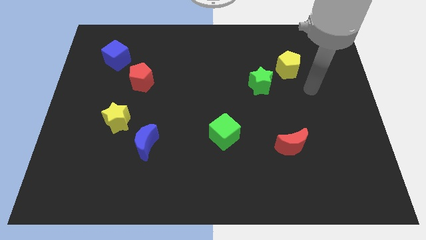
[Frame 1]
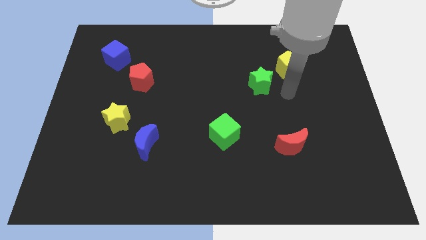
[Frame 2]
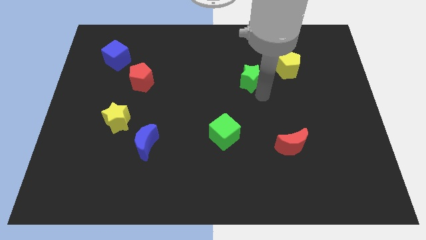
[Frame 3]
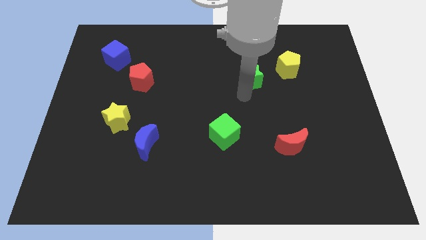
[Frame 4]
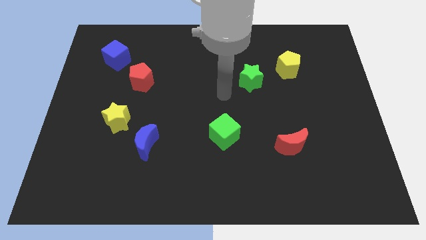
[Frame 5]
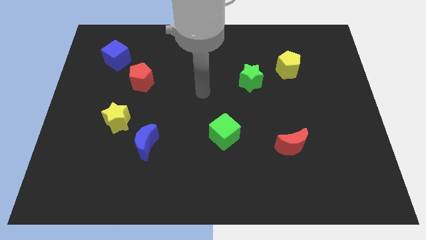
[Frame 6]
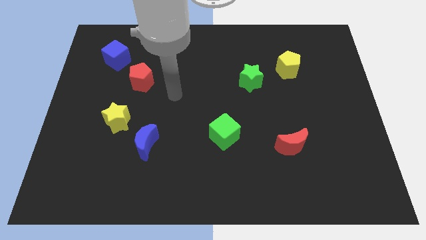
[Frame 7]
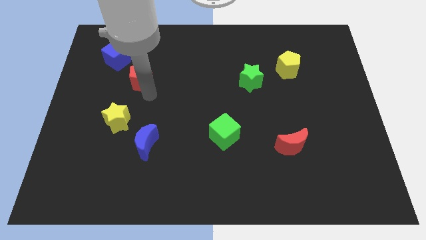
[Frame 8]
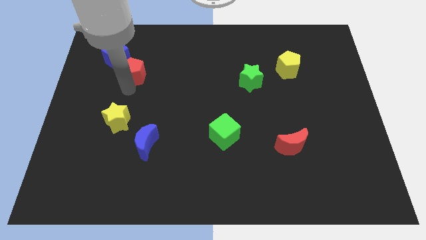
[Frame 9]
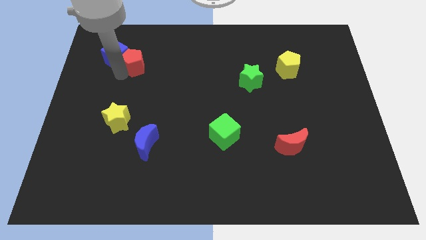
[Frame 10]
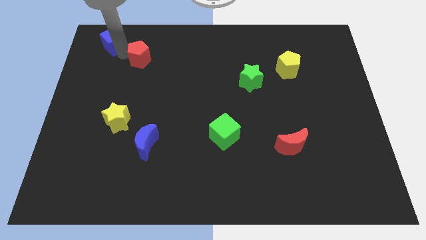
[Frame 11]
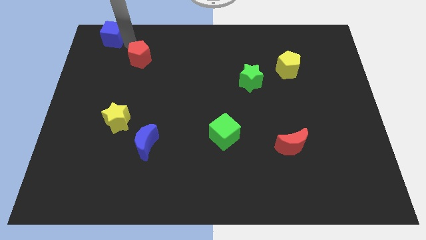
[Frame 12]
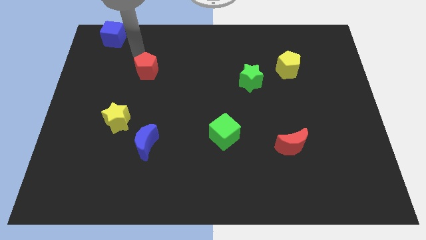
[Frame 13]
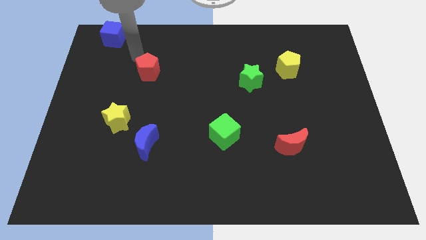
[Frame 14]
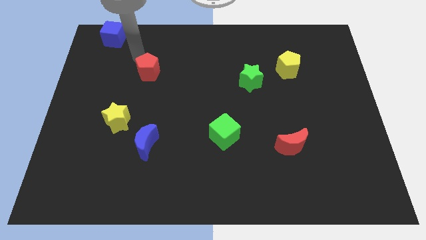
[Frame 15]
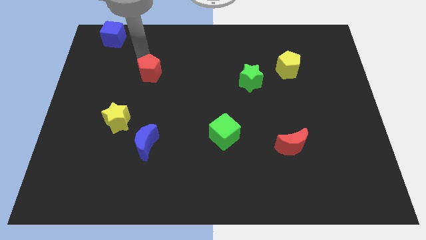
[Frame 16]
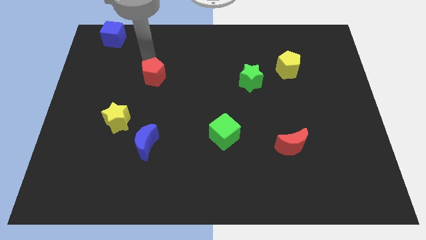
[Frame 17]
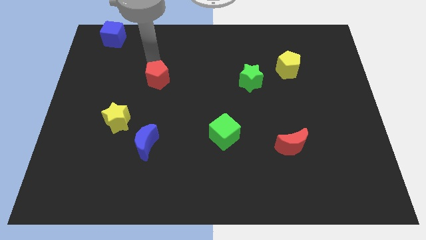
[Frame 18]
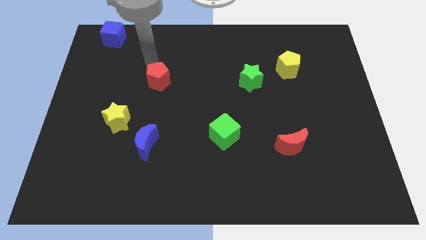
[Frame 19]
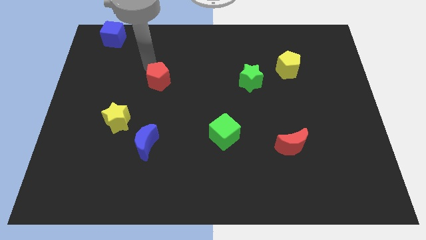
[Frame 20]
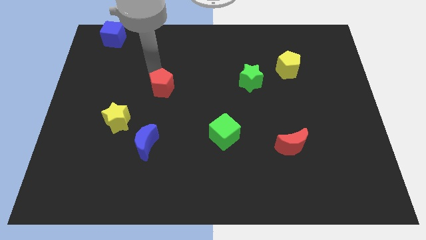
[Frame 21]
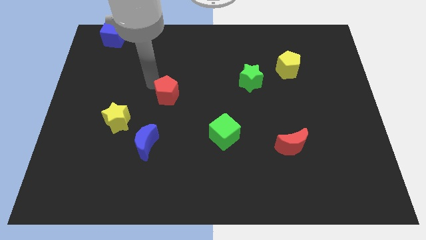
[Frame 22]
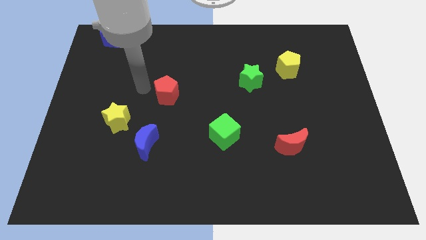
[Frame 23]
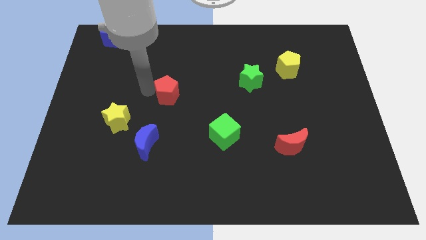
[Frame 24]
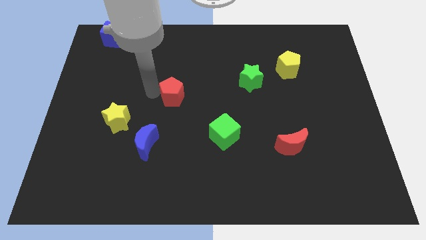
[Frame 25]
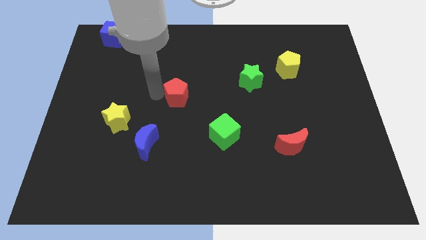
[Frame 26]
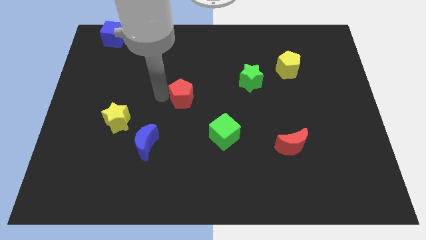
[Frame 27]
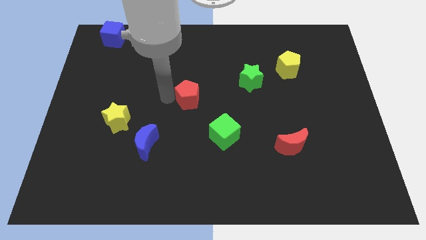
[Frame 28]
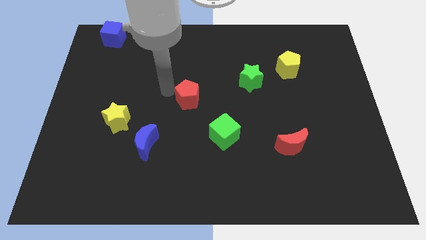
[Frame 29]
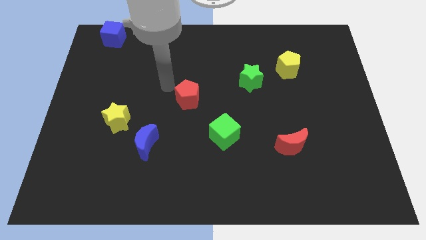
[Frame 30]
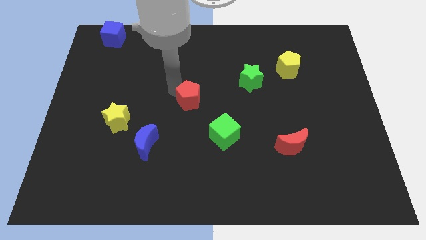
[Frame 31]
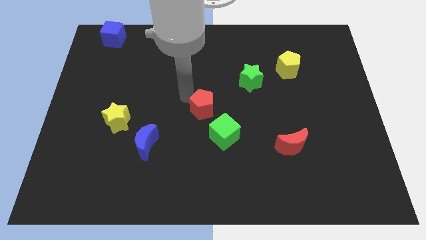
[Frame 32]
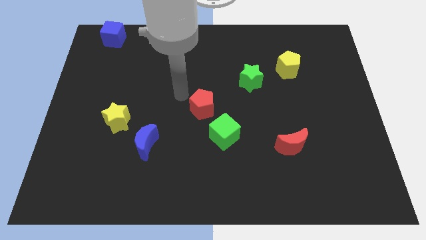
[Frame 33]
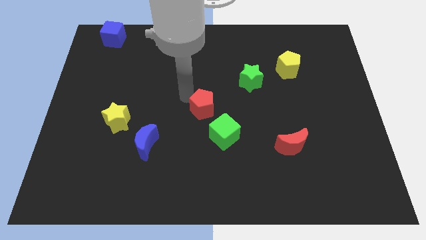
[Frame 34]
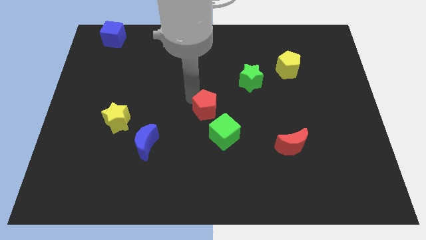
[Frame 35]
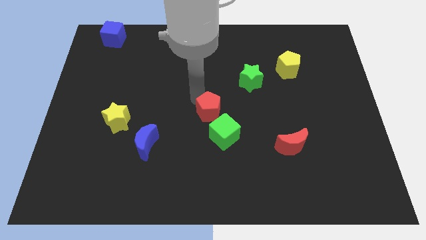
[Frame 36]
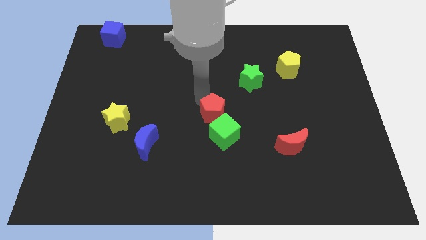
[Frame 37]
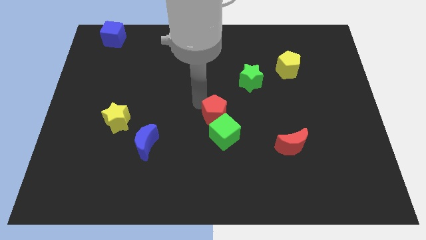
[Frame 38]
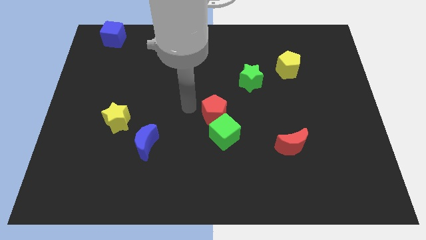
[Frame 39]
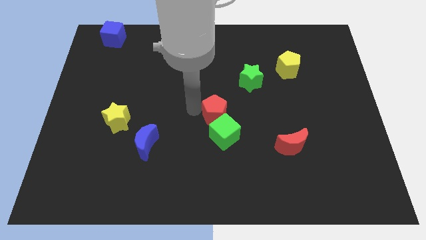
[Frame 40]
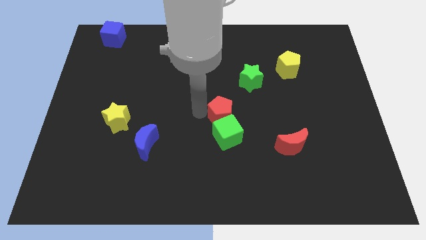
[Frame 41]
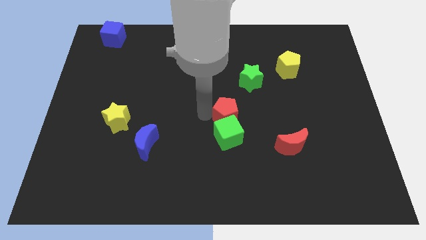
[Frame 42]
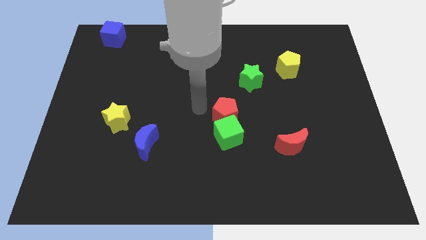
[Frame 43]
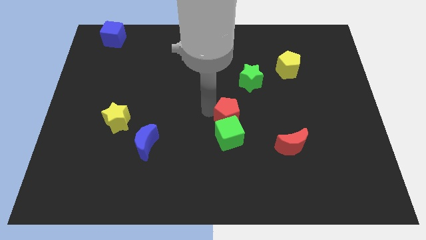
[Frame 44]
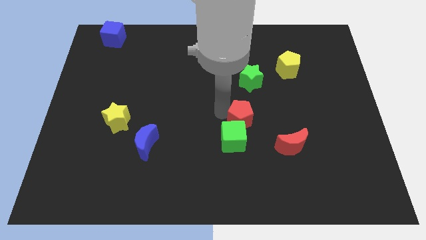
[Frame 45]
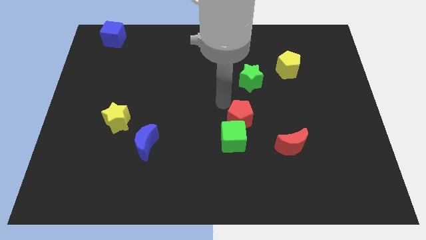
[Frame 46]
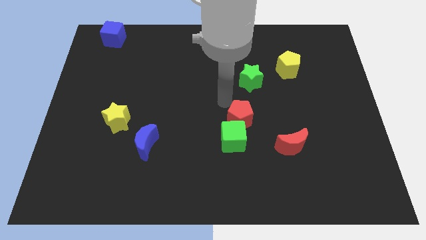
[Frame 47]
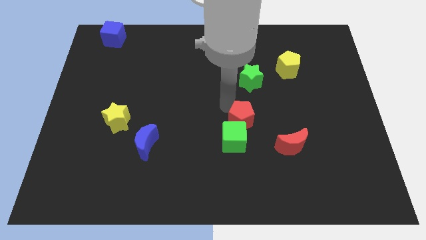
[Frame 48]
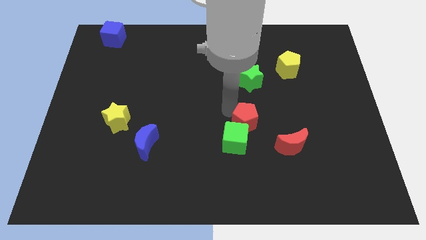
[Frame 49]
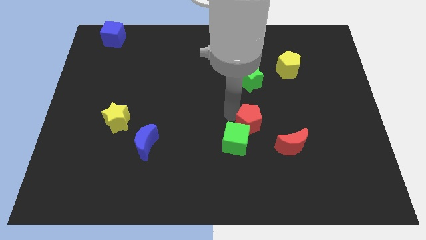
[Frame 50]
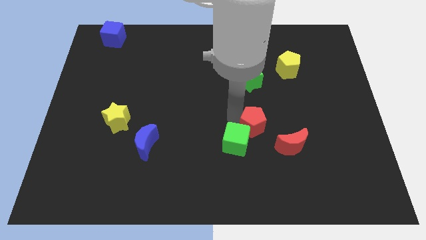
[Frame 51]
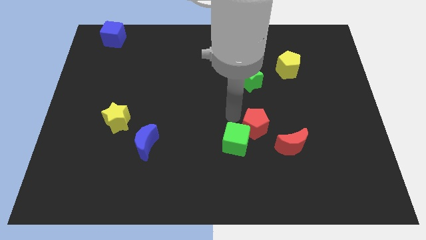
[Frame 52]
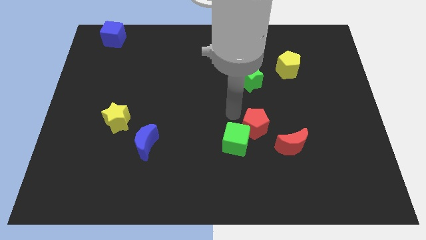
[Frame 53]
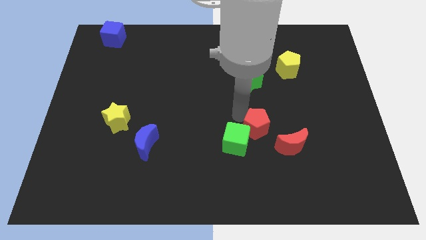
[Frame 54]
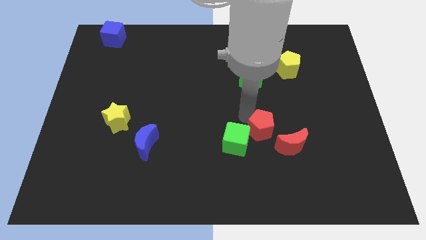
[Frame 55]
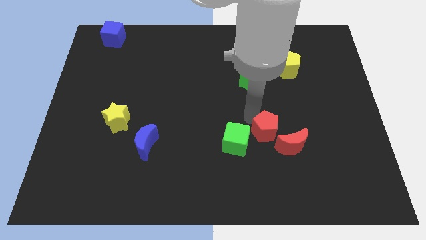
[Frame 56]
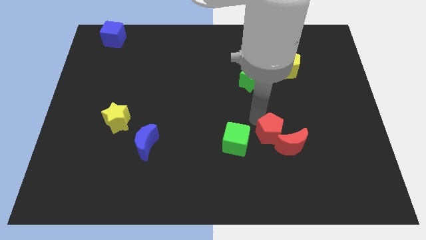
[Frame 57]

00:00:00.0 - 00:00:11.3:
slide the red pentagon towards the red moon

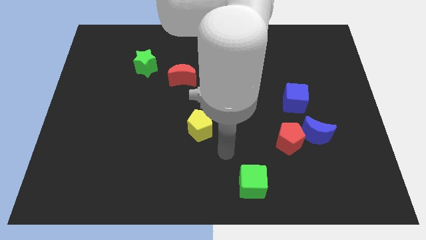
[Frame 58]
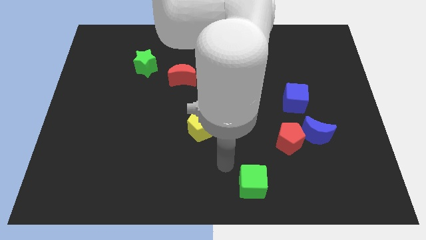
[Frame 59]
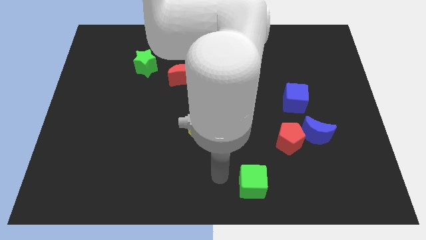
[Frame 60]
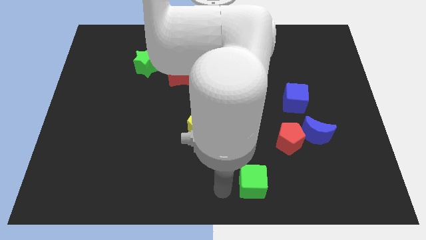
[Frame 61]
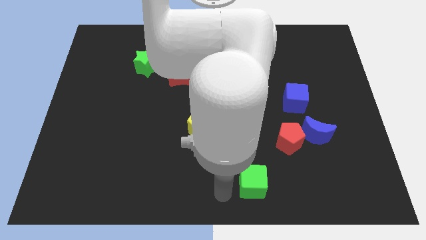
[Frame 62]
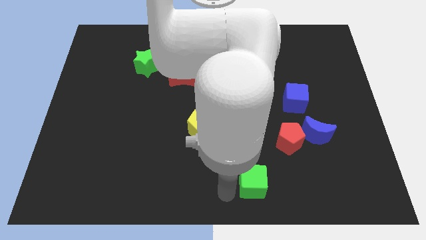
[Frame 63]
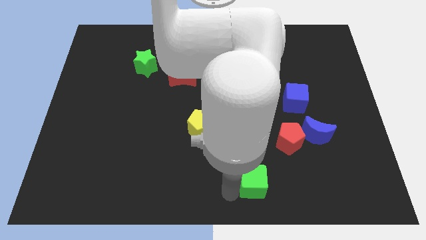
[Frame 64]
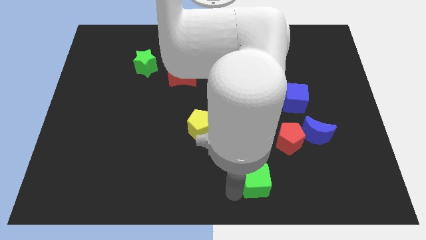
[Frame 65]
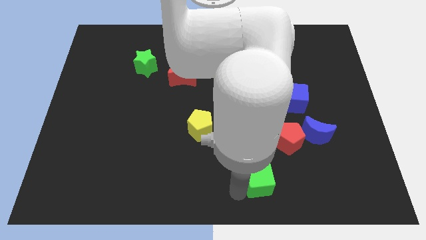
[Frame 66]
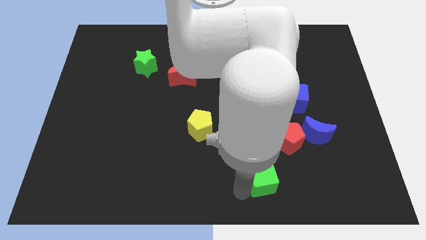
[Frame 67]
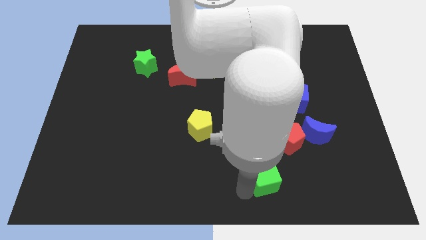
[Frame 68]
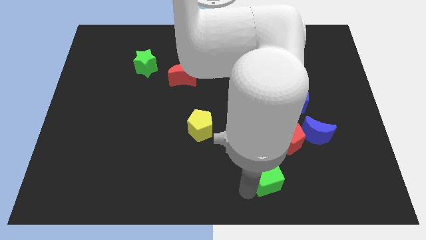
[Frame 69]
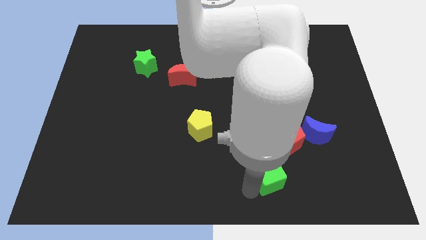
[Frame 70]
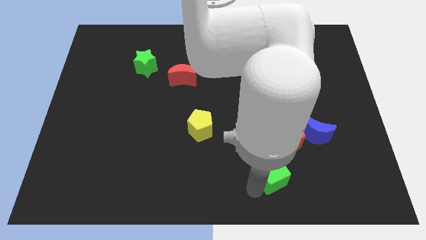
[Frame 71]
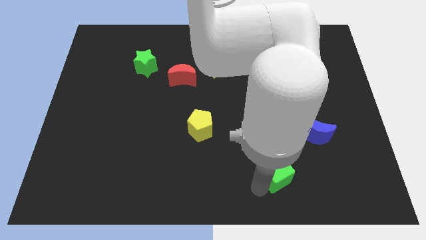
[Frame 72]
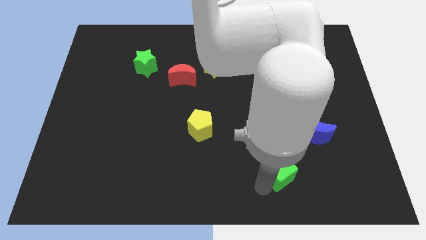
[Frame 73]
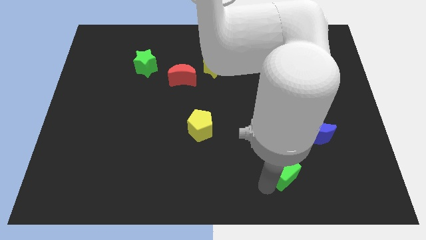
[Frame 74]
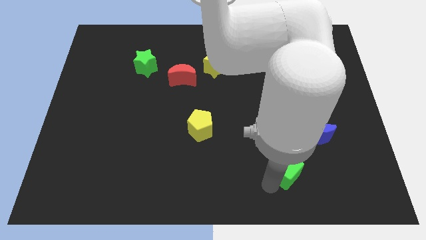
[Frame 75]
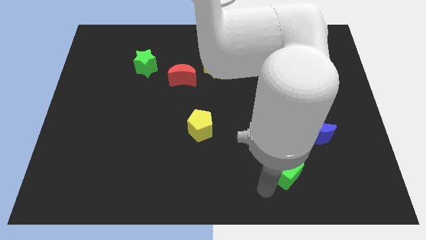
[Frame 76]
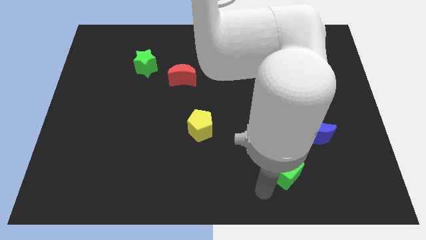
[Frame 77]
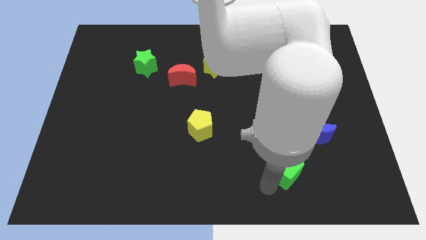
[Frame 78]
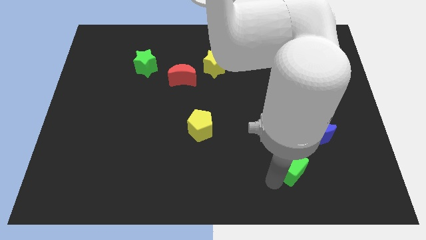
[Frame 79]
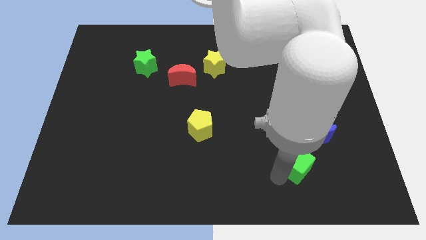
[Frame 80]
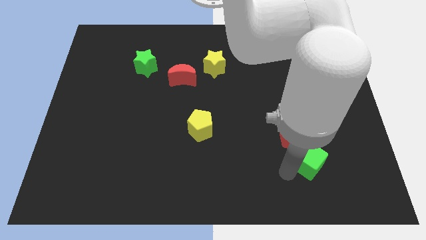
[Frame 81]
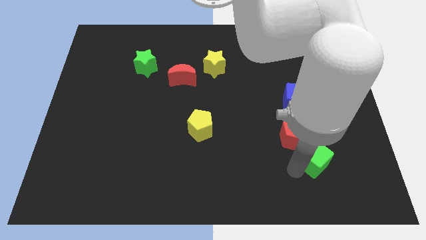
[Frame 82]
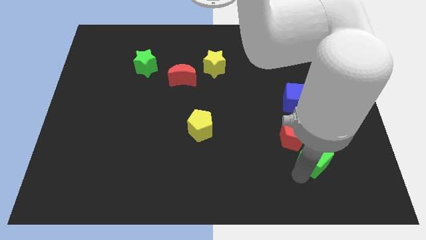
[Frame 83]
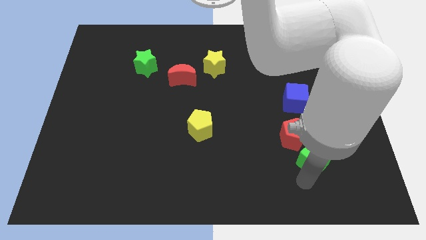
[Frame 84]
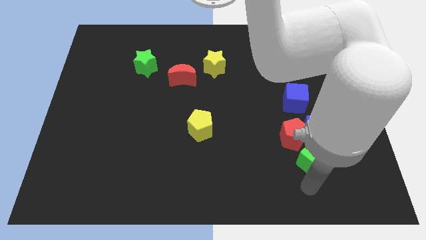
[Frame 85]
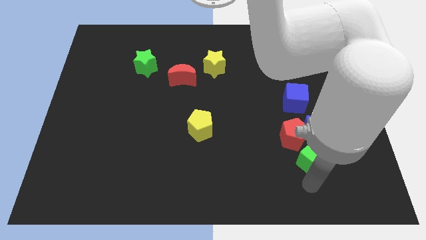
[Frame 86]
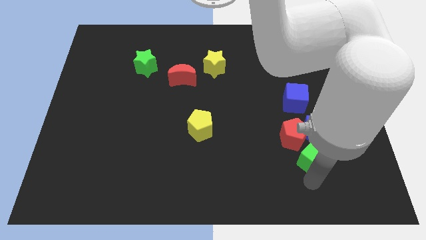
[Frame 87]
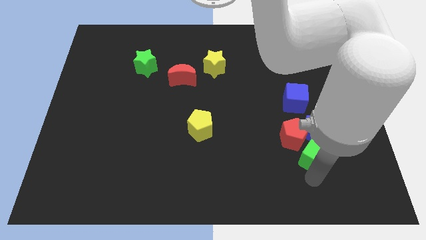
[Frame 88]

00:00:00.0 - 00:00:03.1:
put the green cube close to the blue moon
